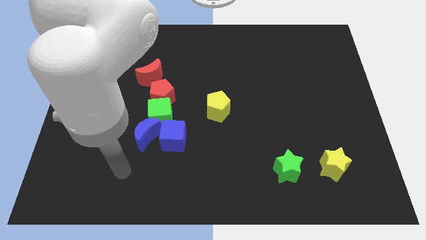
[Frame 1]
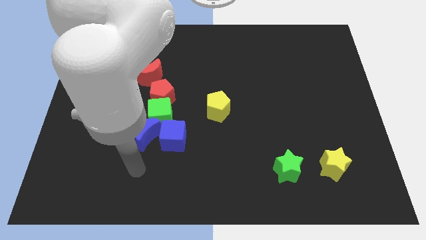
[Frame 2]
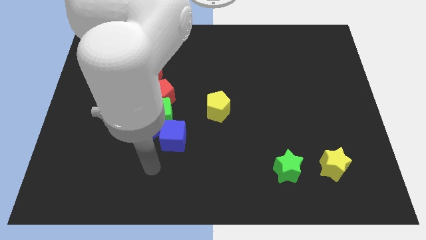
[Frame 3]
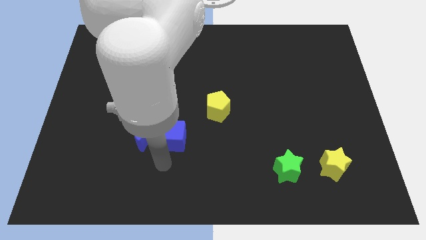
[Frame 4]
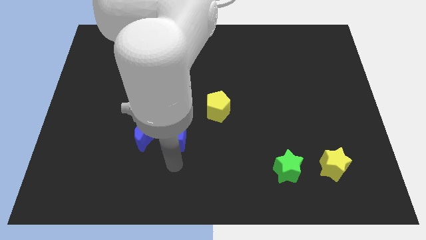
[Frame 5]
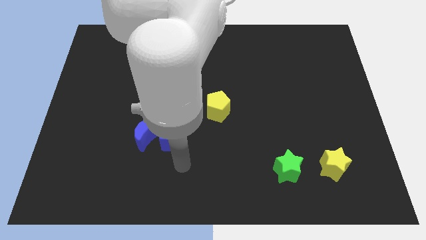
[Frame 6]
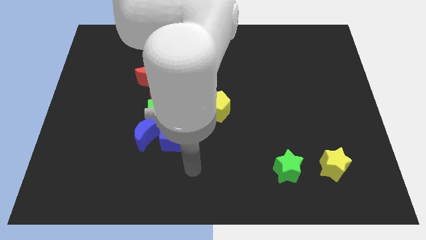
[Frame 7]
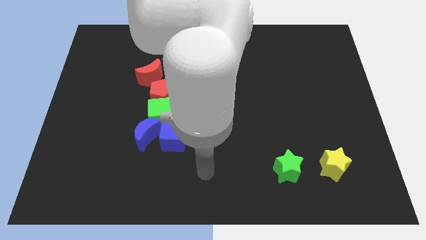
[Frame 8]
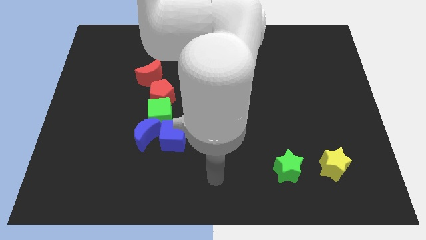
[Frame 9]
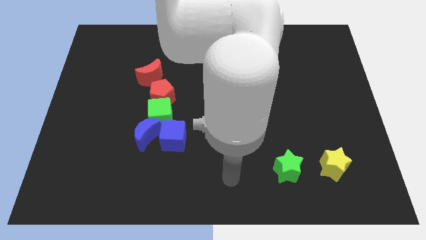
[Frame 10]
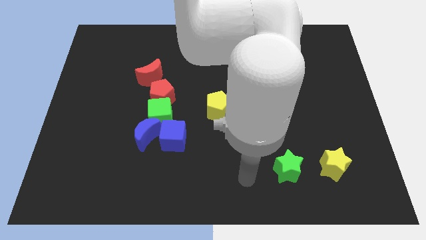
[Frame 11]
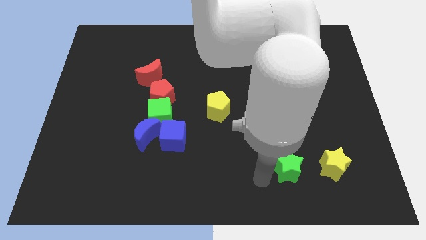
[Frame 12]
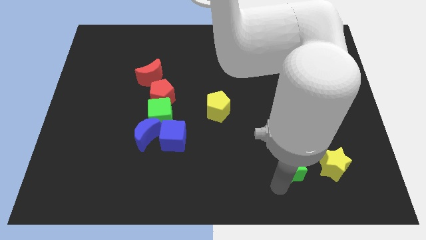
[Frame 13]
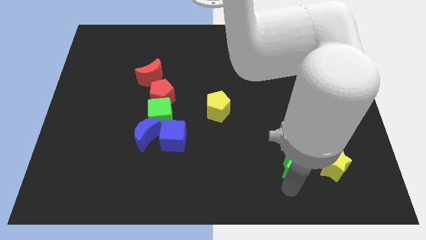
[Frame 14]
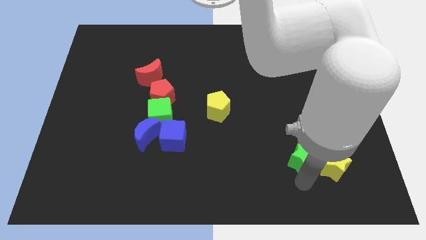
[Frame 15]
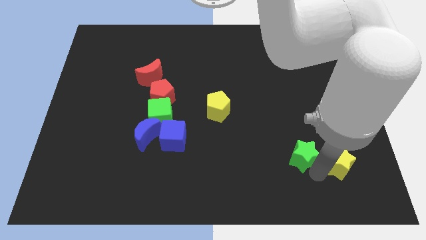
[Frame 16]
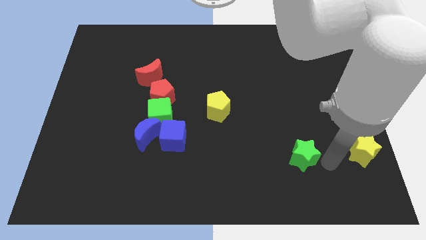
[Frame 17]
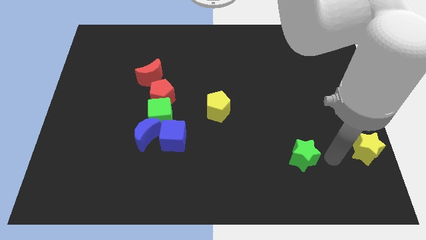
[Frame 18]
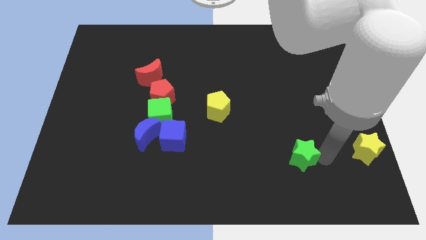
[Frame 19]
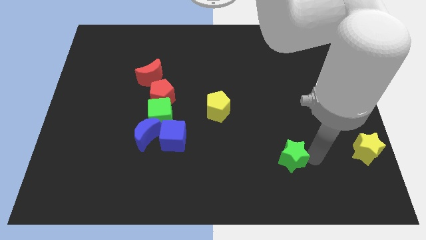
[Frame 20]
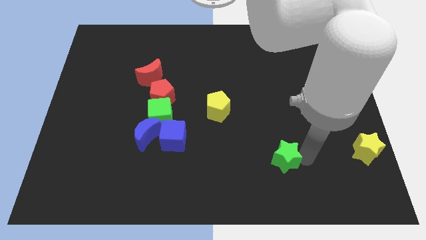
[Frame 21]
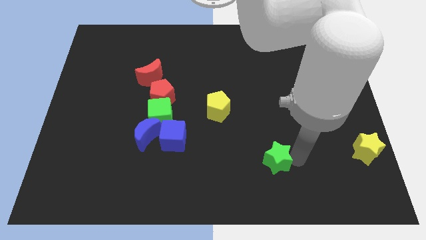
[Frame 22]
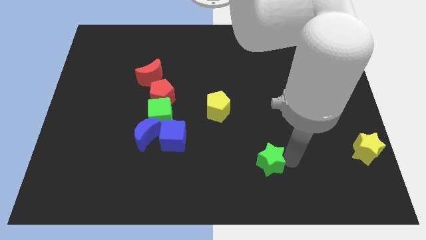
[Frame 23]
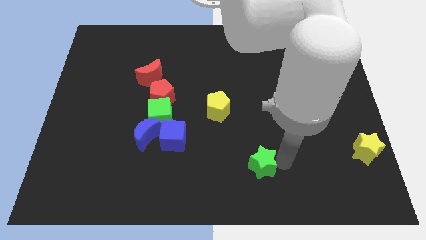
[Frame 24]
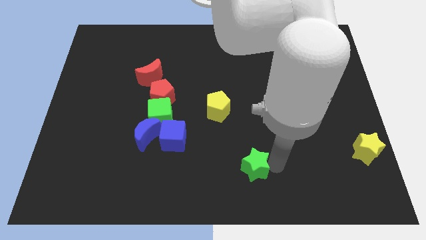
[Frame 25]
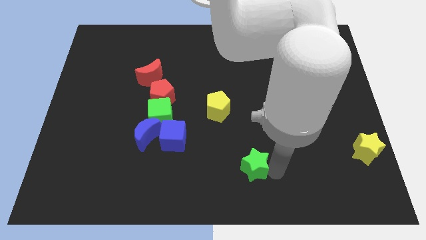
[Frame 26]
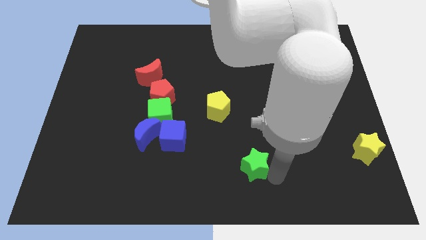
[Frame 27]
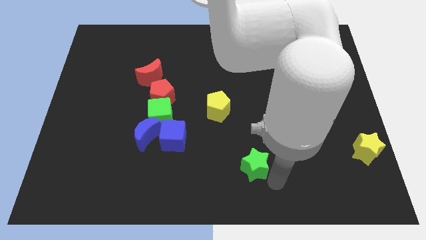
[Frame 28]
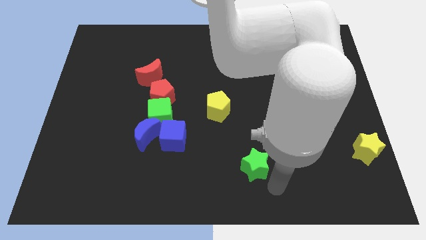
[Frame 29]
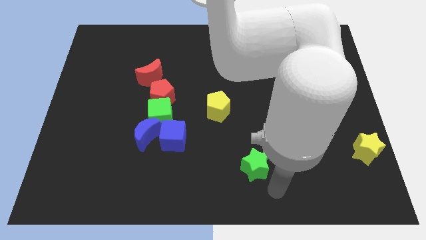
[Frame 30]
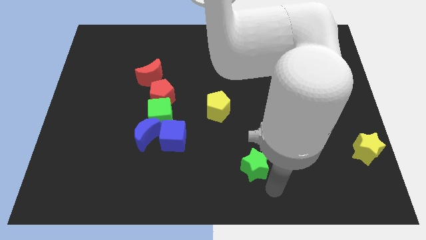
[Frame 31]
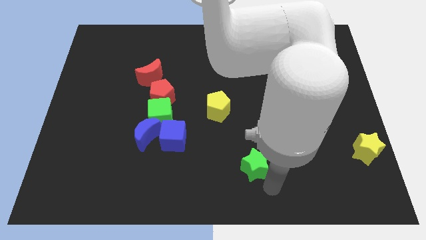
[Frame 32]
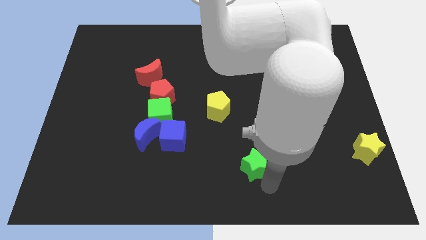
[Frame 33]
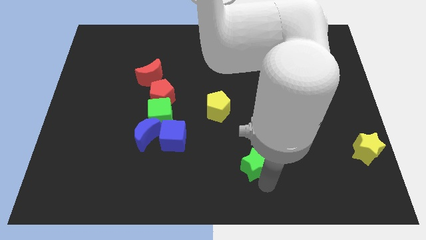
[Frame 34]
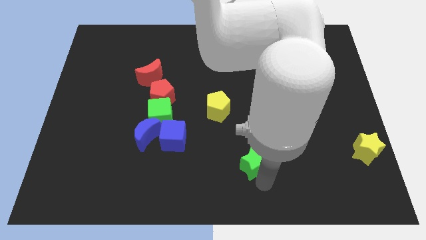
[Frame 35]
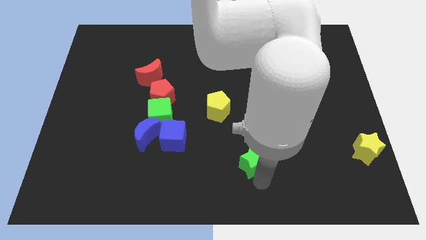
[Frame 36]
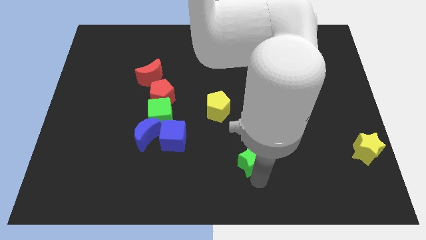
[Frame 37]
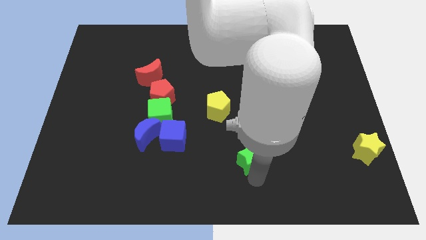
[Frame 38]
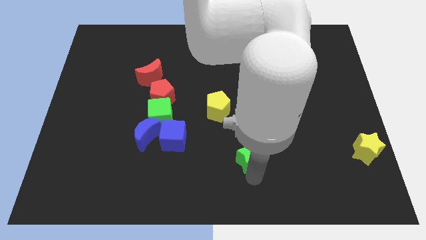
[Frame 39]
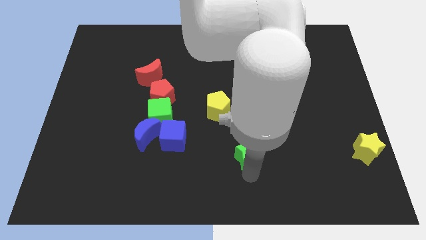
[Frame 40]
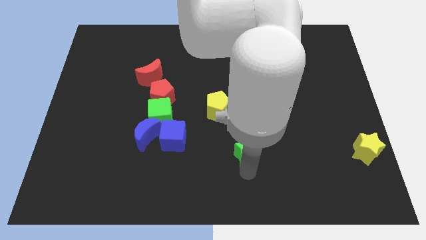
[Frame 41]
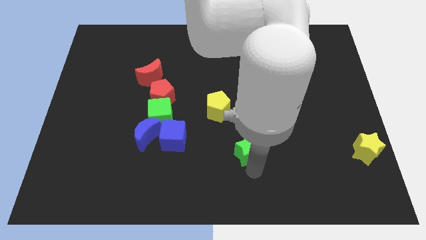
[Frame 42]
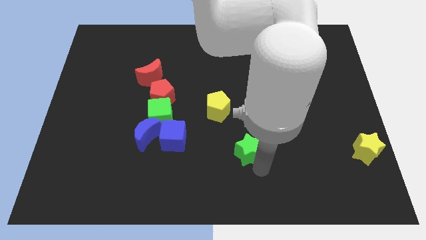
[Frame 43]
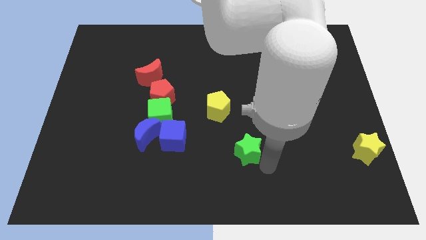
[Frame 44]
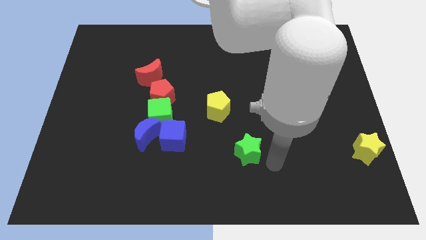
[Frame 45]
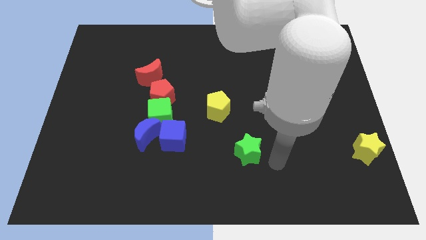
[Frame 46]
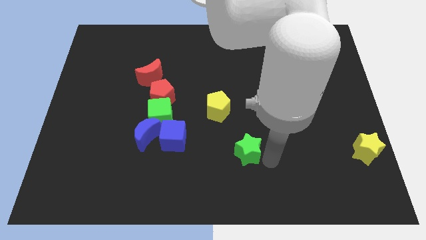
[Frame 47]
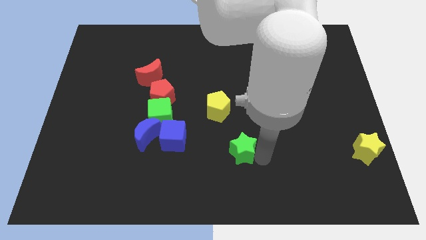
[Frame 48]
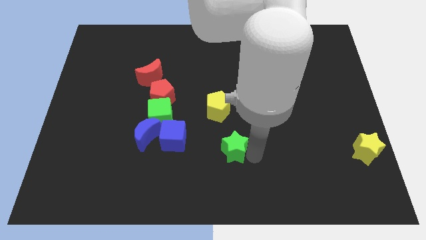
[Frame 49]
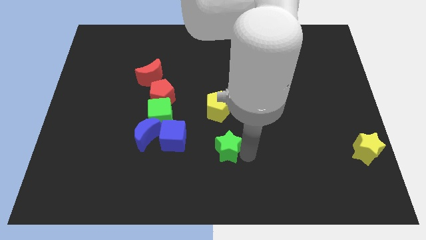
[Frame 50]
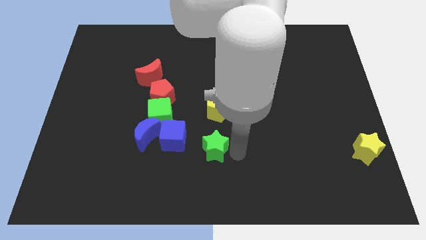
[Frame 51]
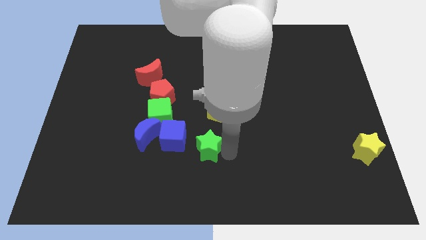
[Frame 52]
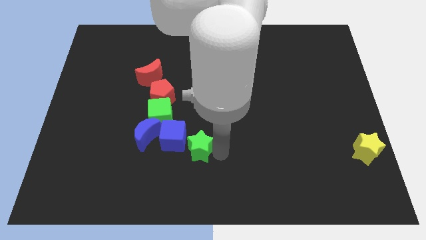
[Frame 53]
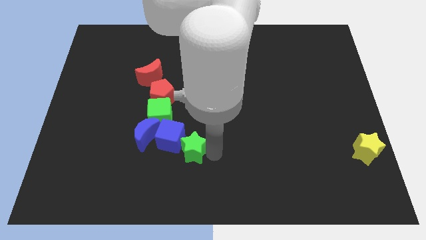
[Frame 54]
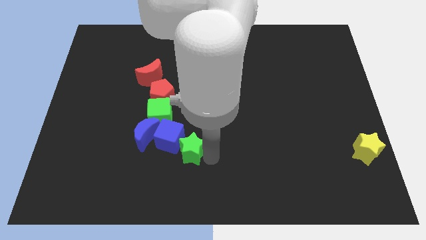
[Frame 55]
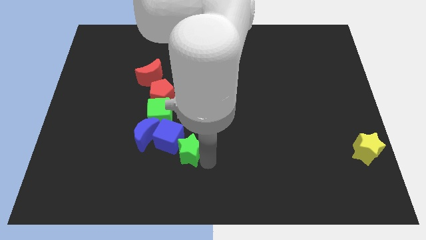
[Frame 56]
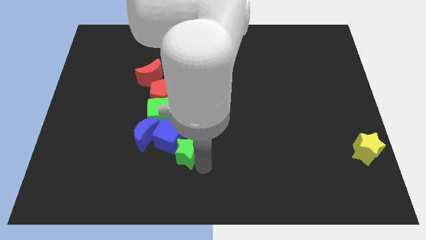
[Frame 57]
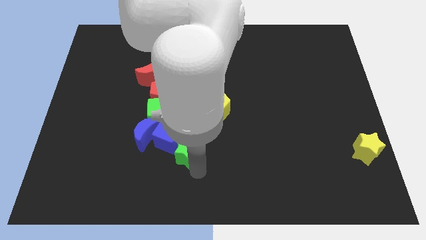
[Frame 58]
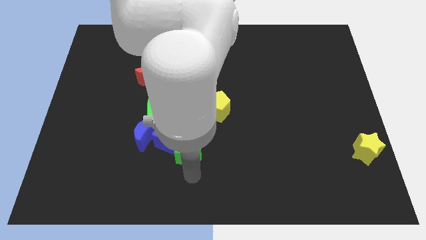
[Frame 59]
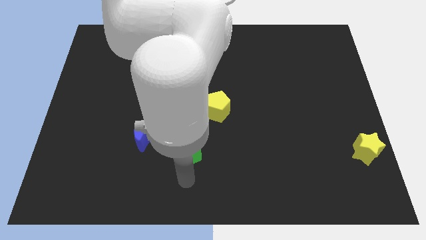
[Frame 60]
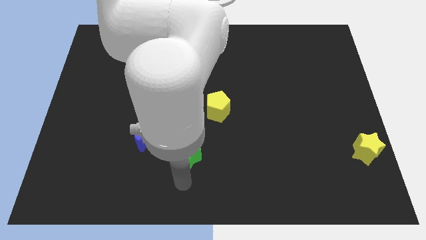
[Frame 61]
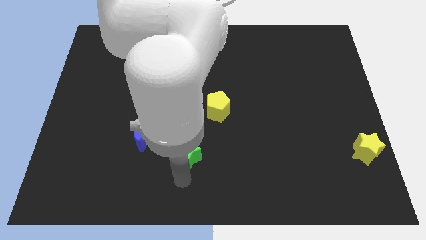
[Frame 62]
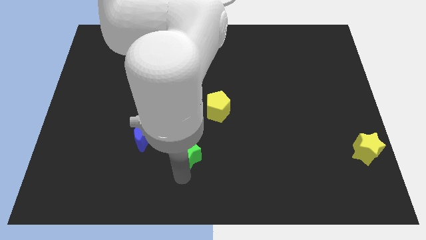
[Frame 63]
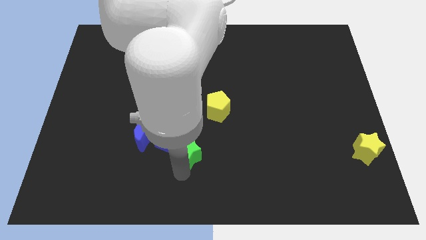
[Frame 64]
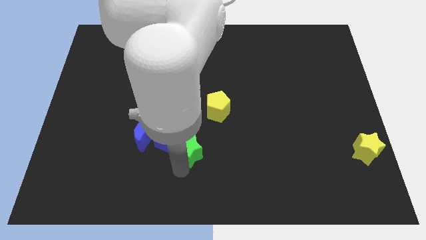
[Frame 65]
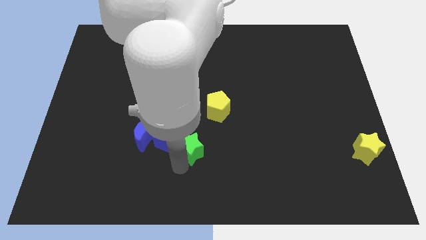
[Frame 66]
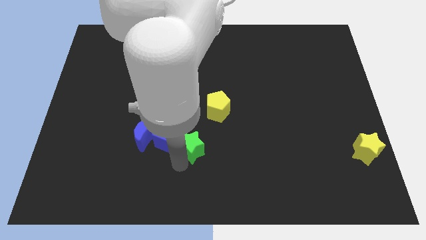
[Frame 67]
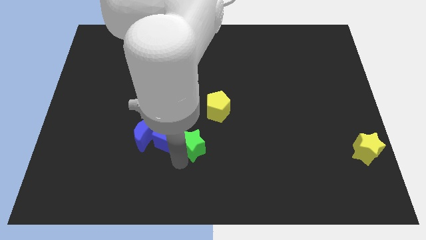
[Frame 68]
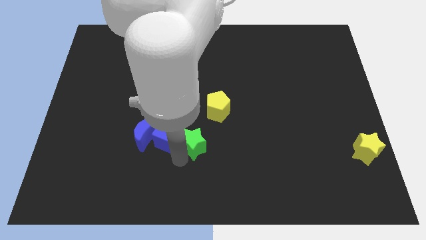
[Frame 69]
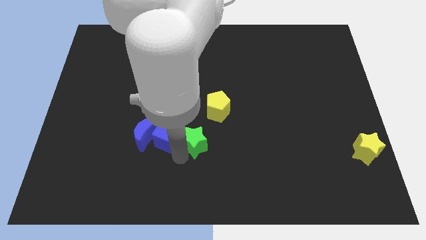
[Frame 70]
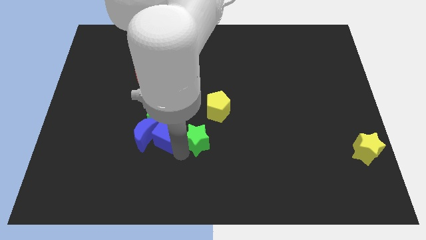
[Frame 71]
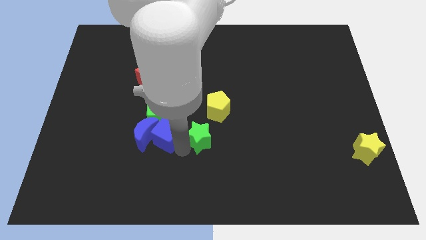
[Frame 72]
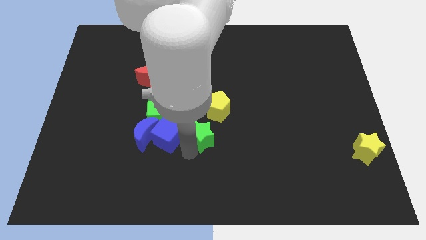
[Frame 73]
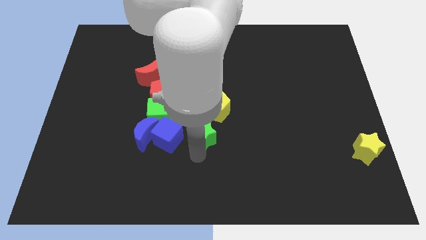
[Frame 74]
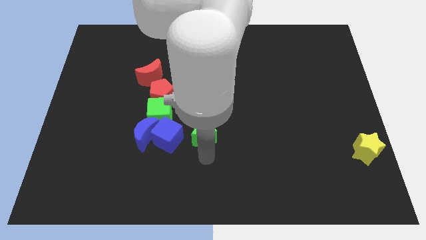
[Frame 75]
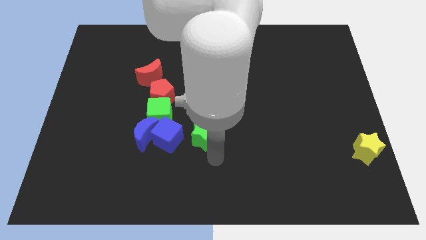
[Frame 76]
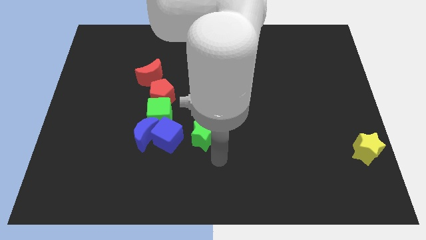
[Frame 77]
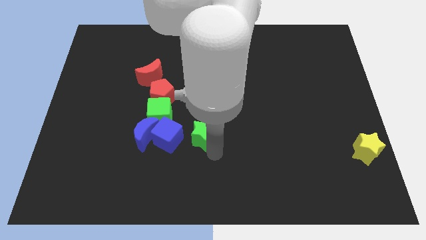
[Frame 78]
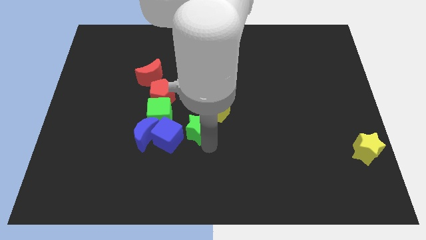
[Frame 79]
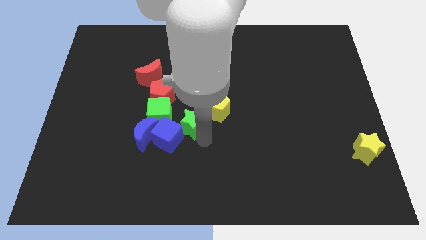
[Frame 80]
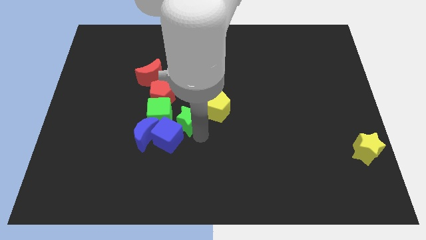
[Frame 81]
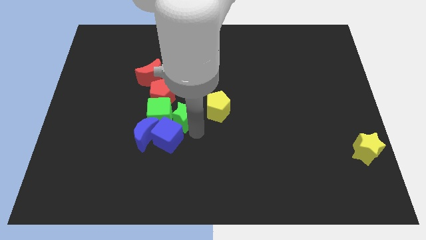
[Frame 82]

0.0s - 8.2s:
move the green star diagonally up and to the right of the green cube

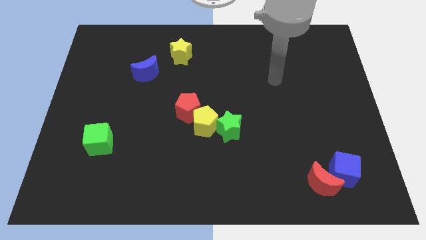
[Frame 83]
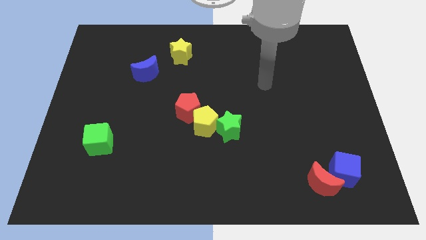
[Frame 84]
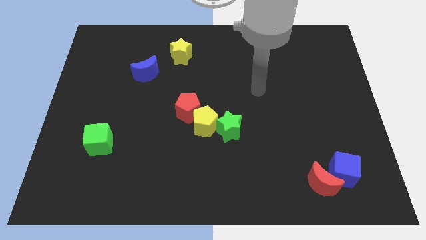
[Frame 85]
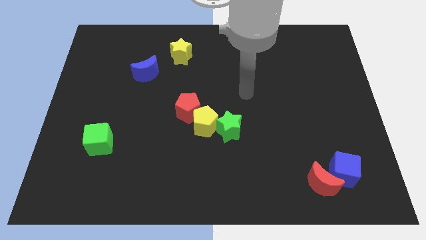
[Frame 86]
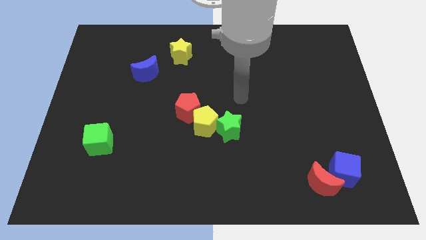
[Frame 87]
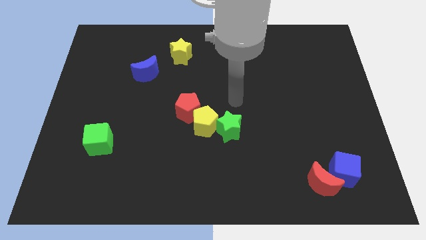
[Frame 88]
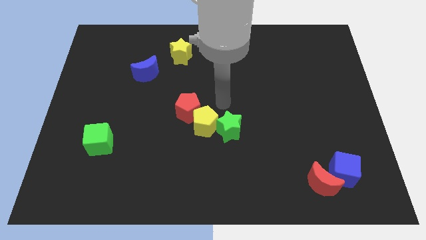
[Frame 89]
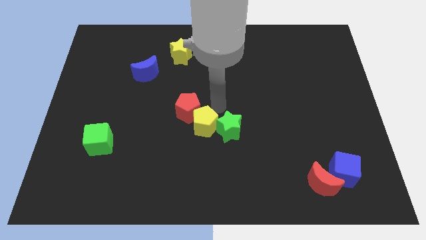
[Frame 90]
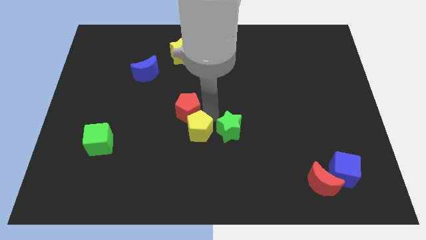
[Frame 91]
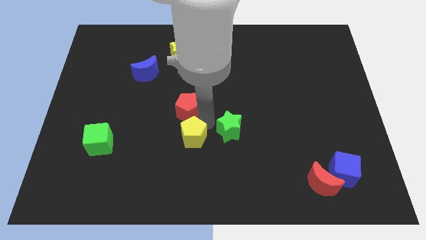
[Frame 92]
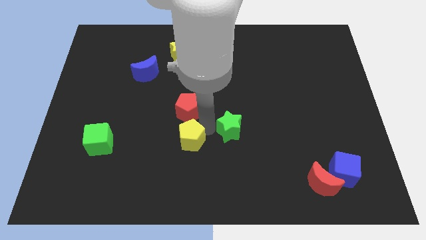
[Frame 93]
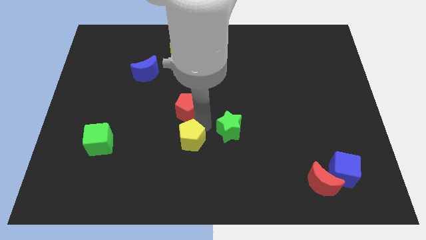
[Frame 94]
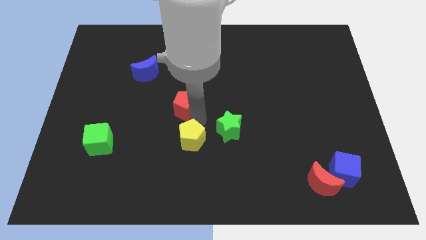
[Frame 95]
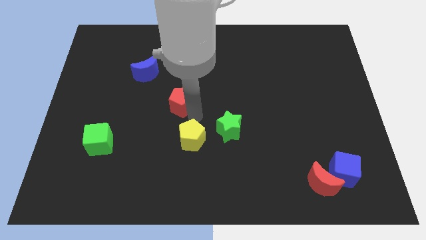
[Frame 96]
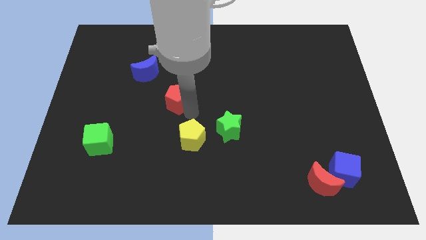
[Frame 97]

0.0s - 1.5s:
slide the red pentagon diagonally down and to the right of the blue moon
